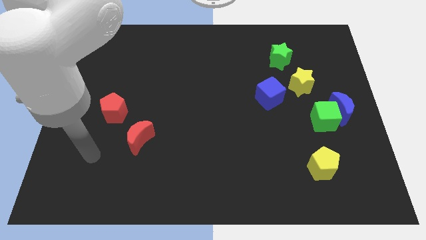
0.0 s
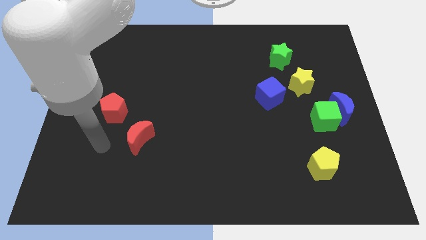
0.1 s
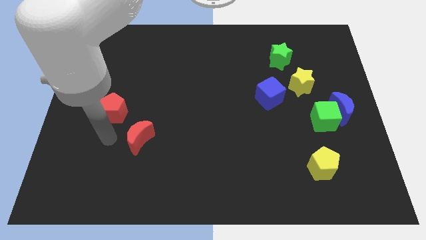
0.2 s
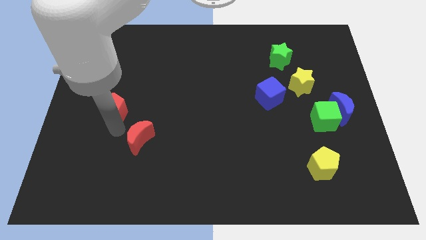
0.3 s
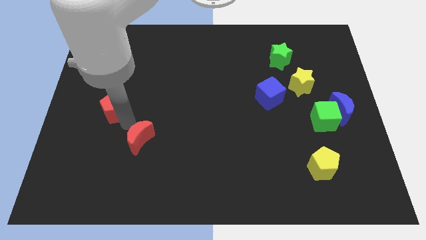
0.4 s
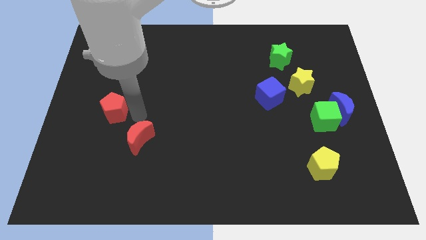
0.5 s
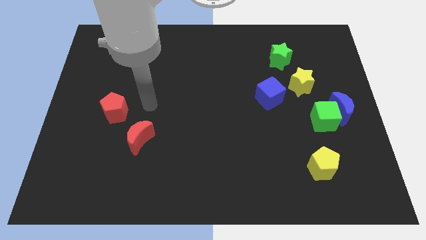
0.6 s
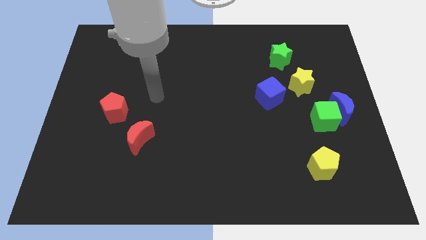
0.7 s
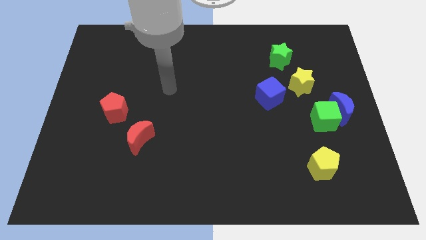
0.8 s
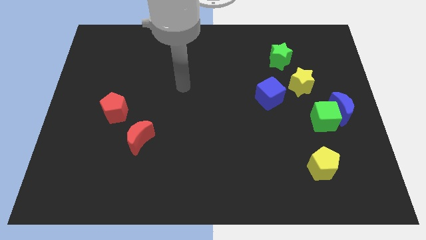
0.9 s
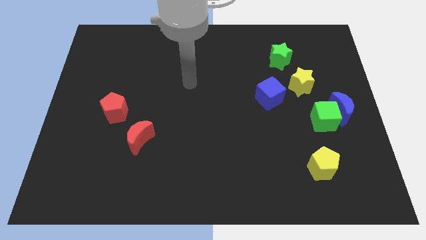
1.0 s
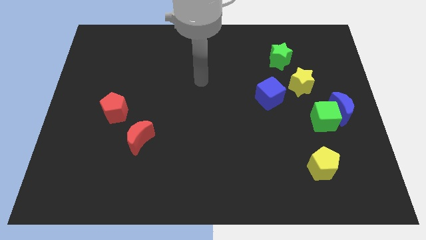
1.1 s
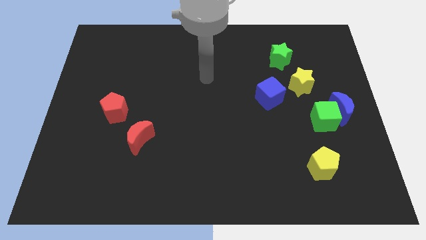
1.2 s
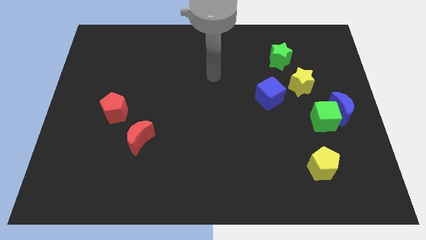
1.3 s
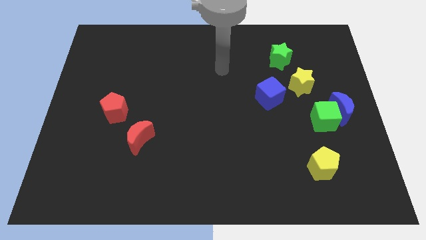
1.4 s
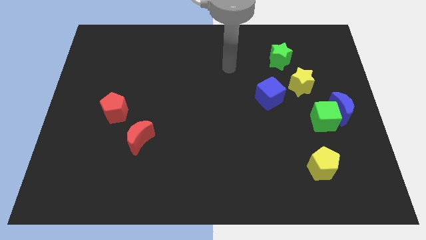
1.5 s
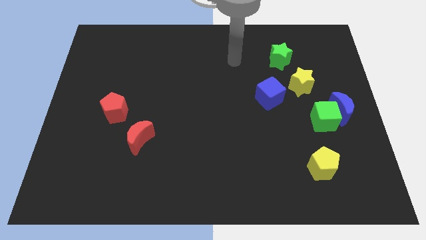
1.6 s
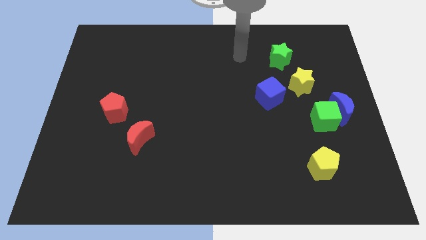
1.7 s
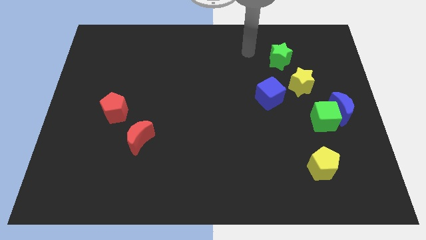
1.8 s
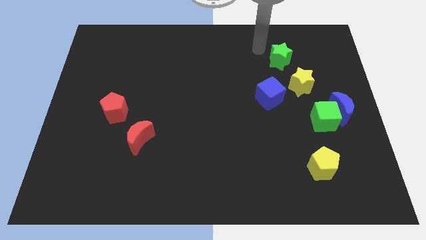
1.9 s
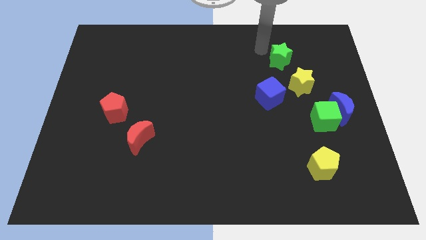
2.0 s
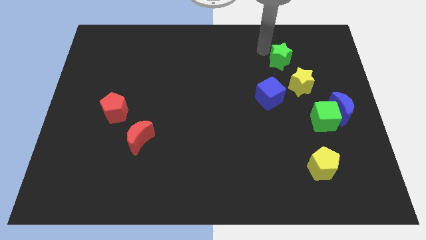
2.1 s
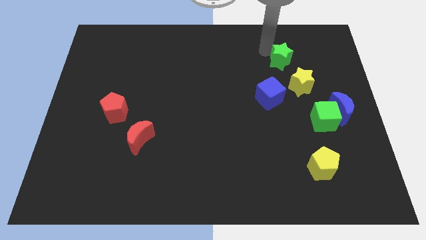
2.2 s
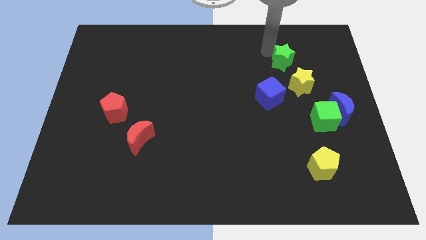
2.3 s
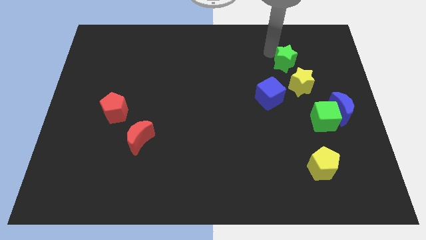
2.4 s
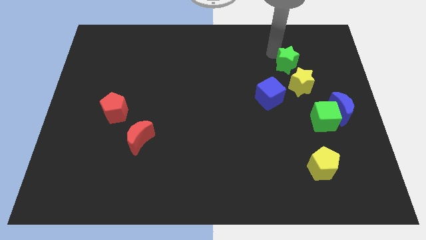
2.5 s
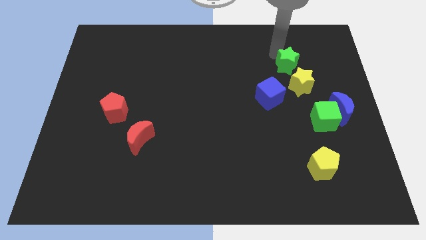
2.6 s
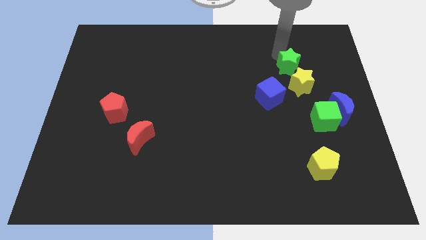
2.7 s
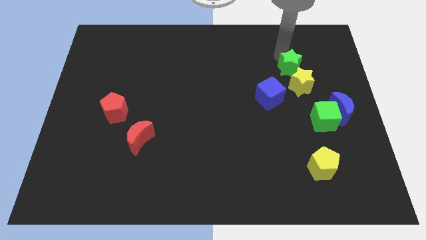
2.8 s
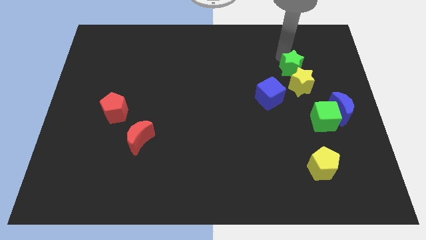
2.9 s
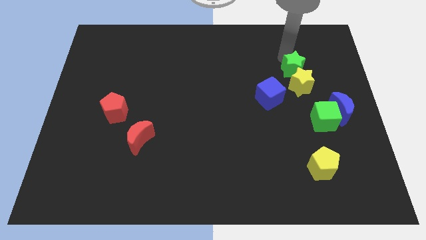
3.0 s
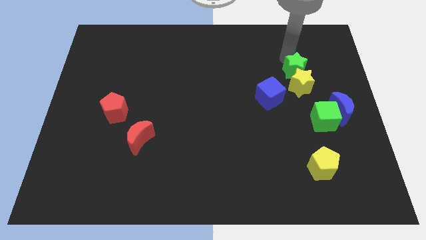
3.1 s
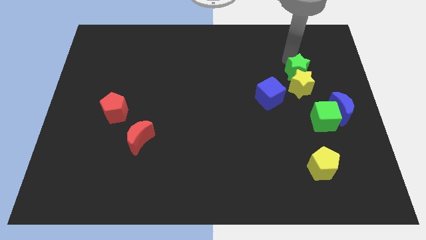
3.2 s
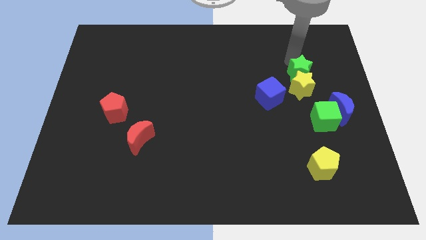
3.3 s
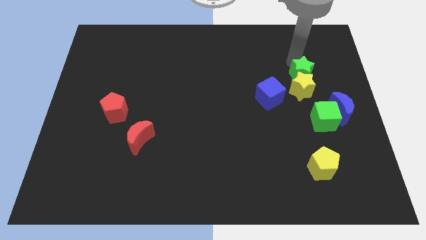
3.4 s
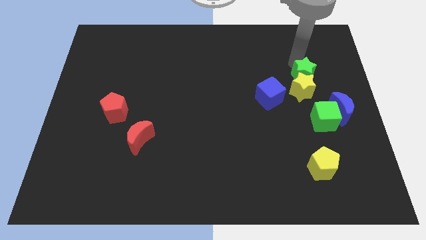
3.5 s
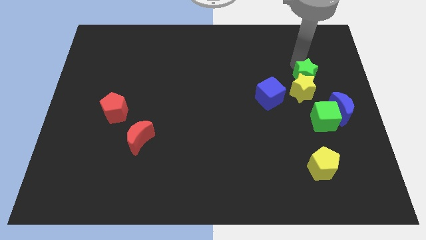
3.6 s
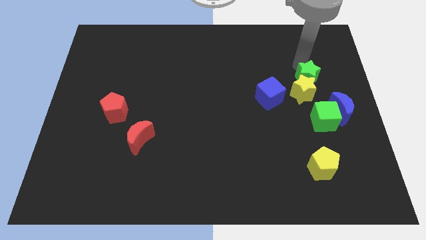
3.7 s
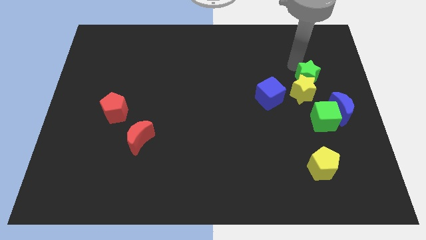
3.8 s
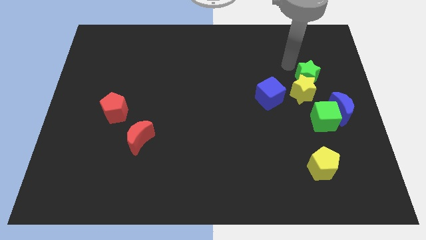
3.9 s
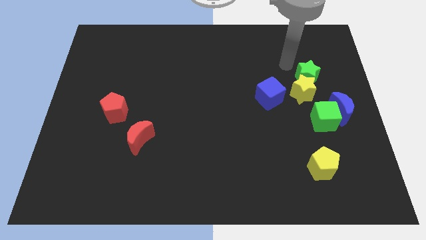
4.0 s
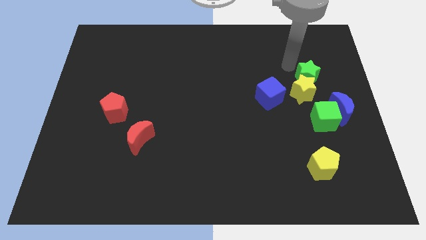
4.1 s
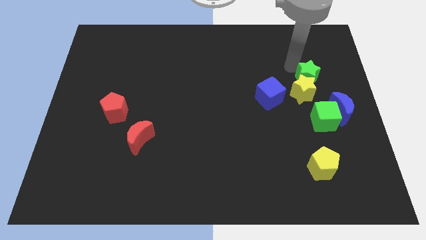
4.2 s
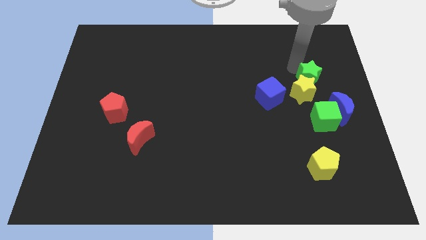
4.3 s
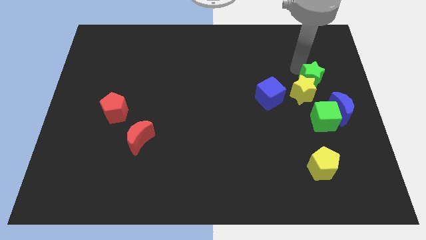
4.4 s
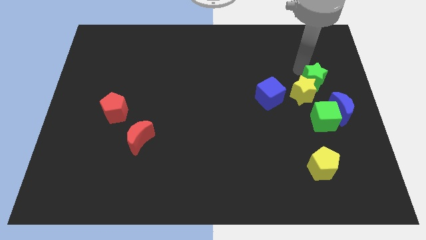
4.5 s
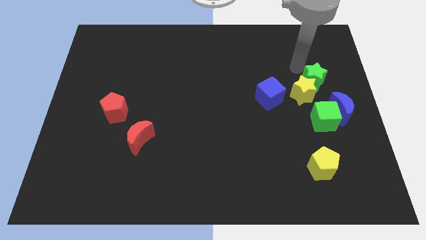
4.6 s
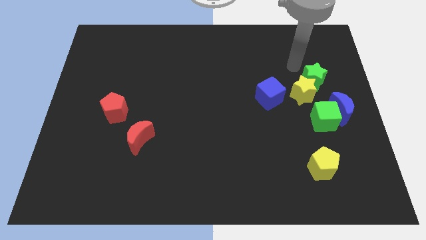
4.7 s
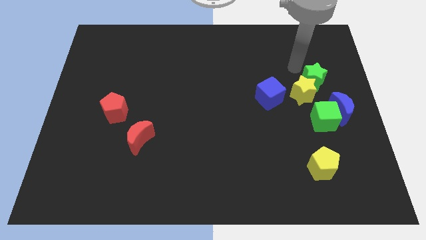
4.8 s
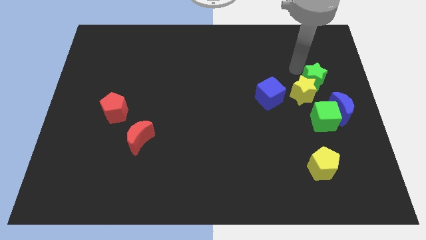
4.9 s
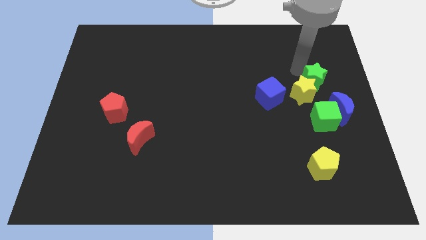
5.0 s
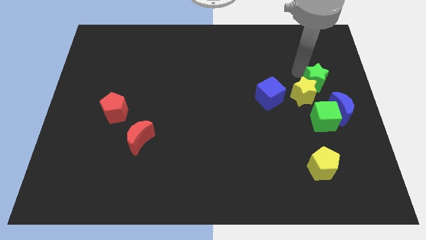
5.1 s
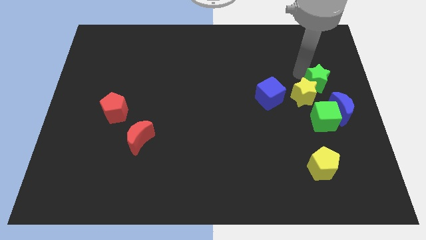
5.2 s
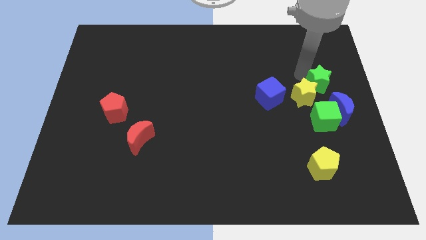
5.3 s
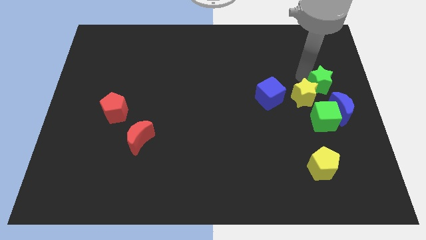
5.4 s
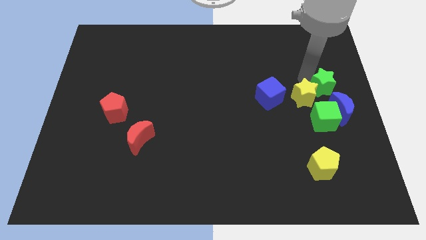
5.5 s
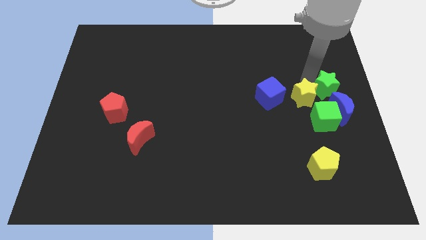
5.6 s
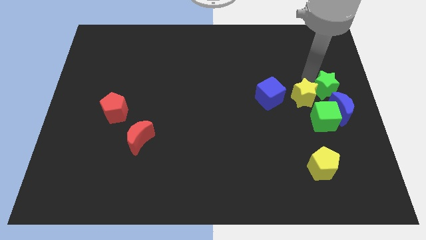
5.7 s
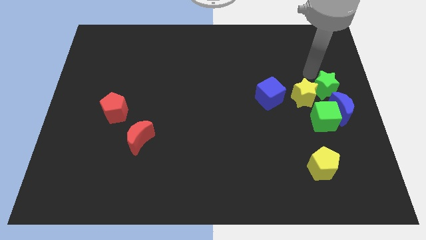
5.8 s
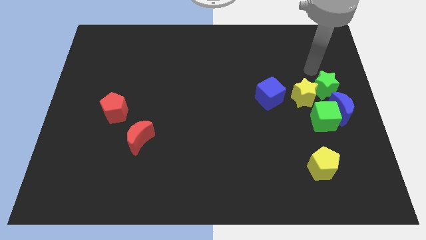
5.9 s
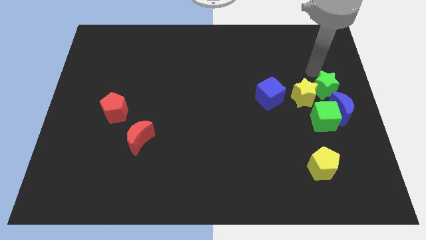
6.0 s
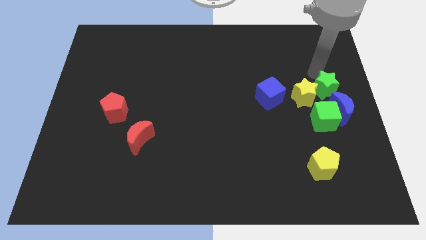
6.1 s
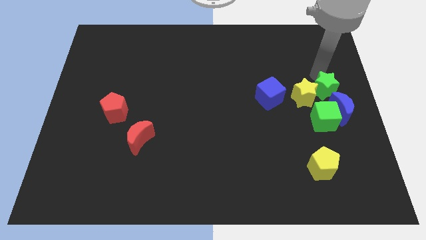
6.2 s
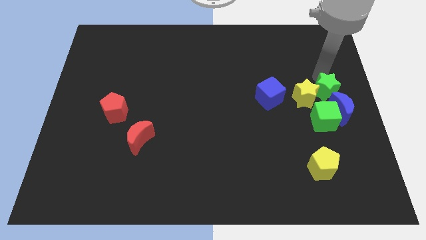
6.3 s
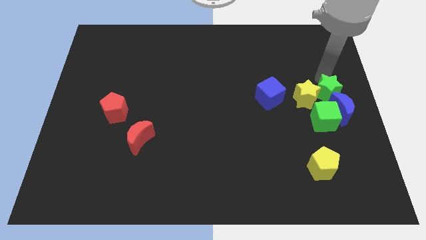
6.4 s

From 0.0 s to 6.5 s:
move the green star towards the blue moon
